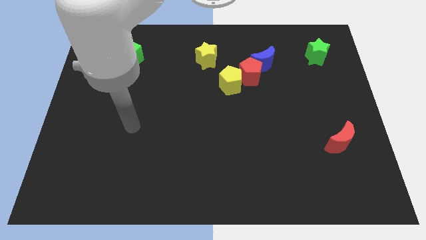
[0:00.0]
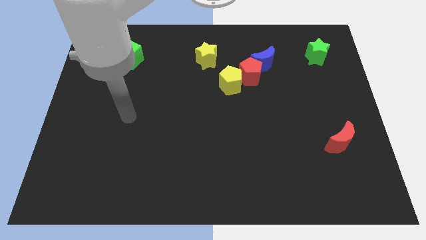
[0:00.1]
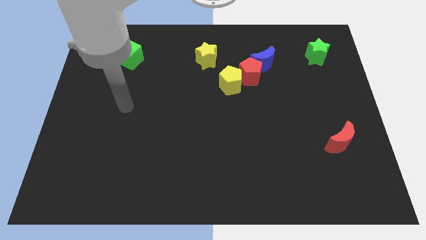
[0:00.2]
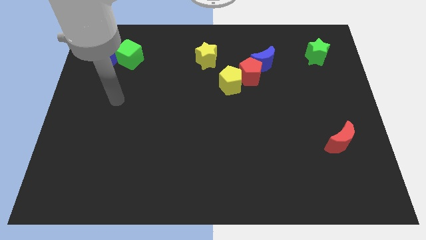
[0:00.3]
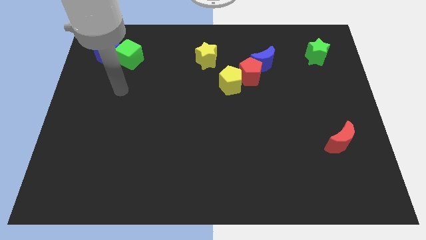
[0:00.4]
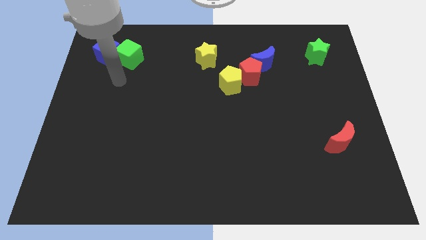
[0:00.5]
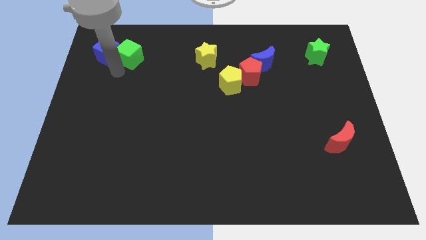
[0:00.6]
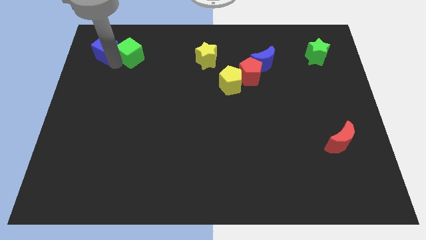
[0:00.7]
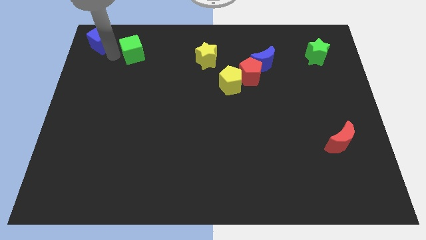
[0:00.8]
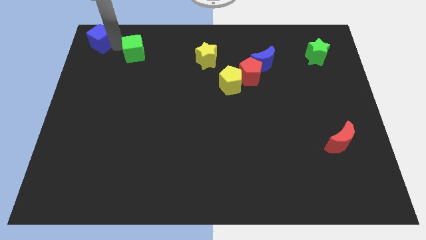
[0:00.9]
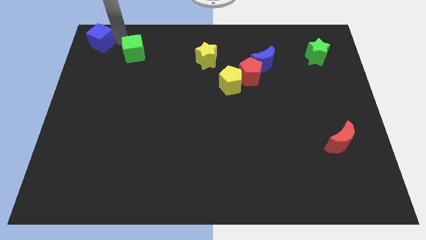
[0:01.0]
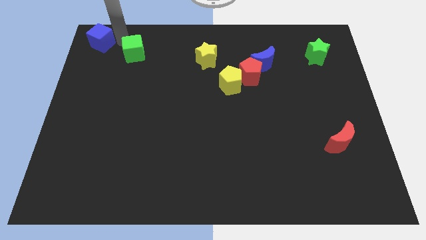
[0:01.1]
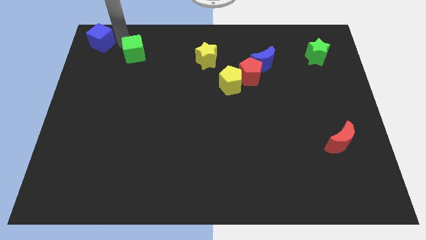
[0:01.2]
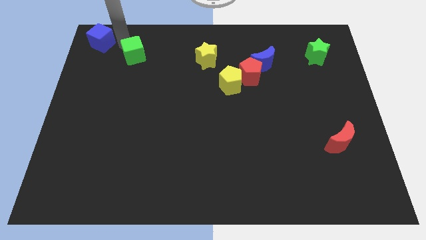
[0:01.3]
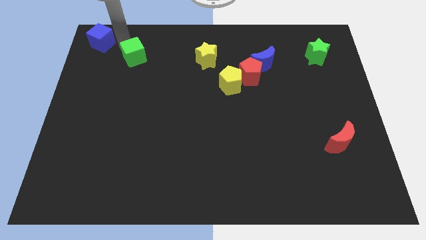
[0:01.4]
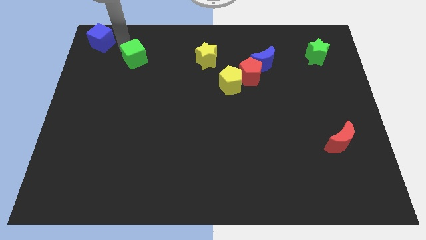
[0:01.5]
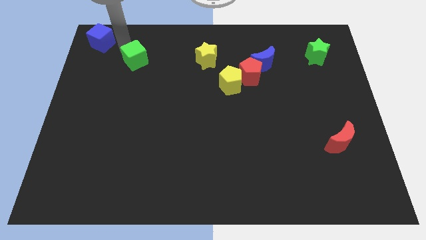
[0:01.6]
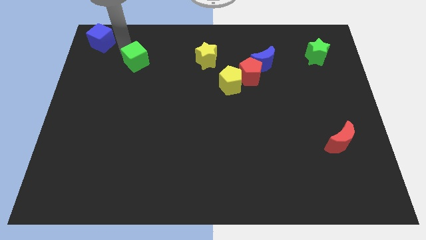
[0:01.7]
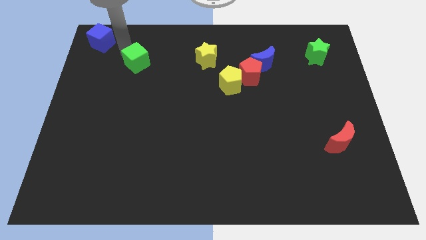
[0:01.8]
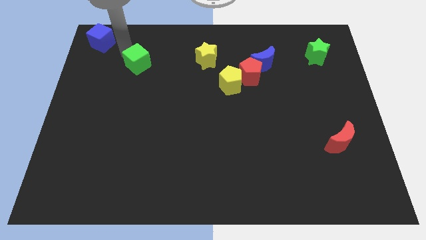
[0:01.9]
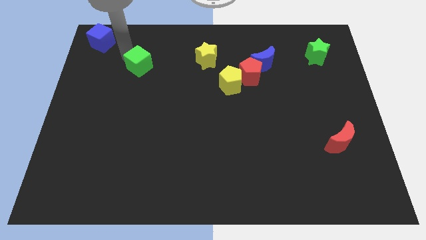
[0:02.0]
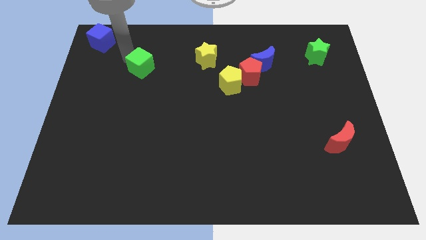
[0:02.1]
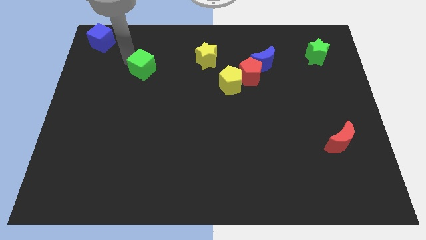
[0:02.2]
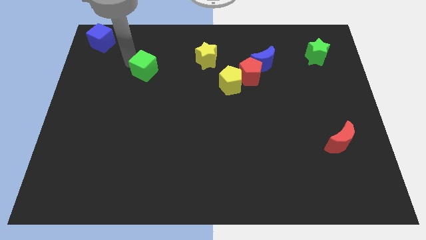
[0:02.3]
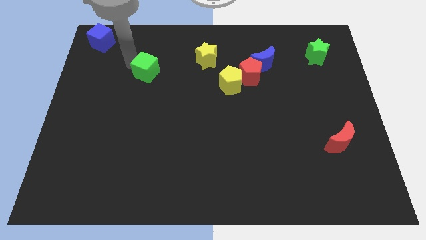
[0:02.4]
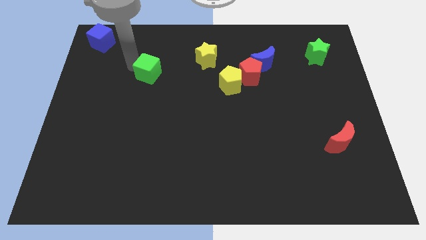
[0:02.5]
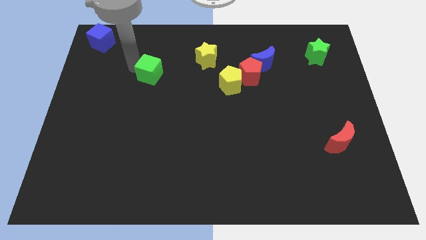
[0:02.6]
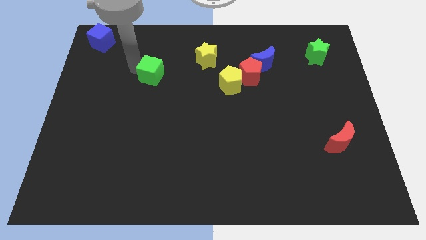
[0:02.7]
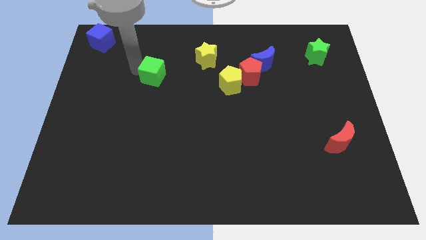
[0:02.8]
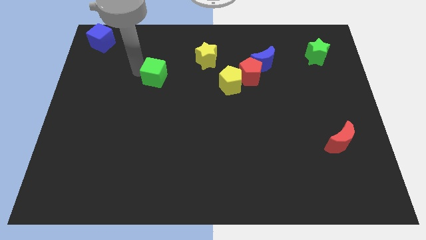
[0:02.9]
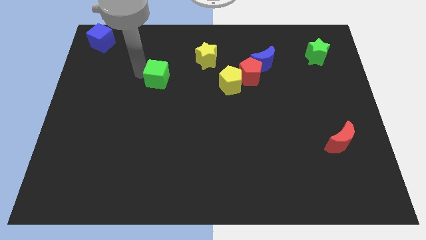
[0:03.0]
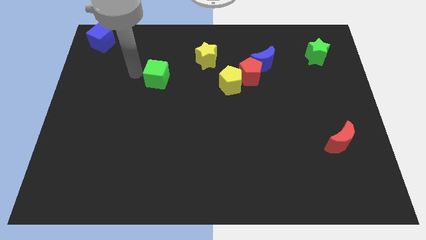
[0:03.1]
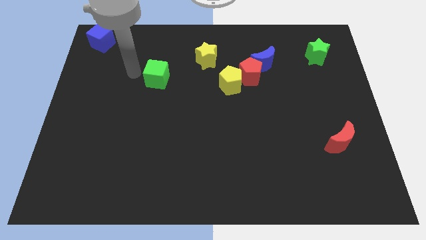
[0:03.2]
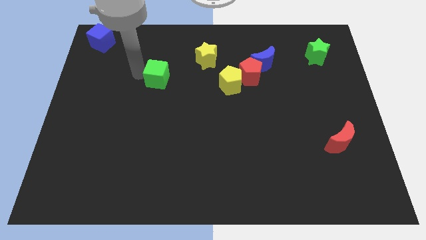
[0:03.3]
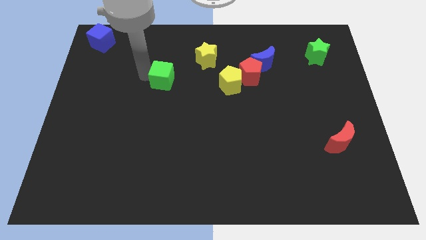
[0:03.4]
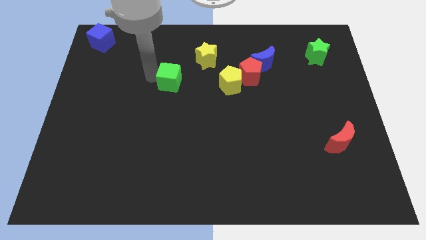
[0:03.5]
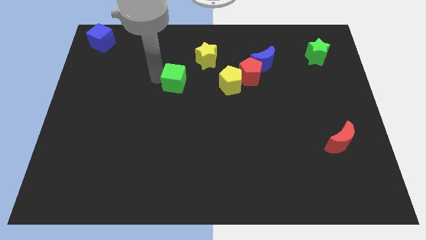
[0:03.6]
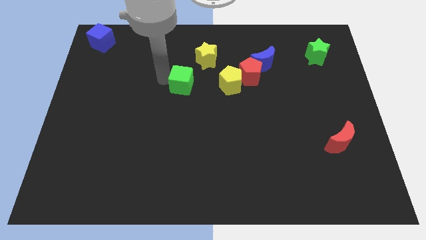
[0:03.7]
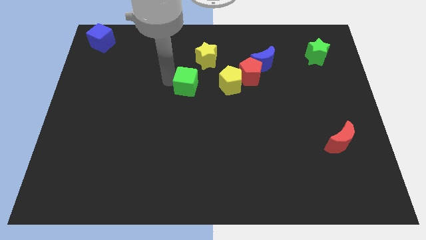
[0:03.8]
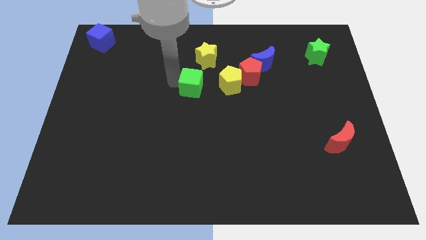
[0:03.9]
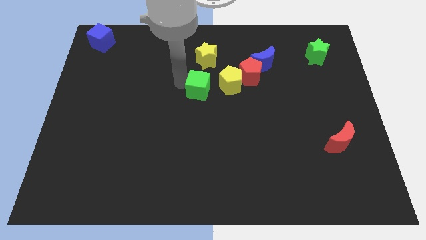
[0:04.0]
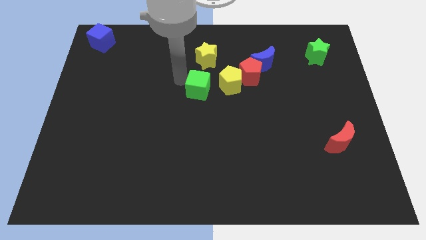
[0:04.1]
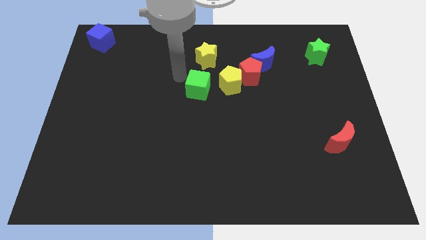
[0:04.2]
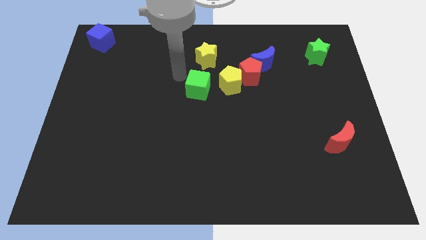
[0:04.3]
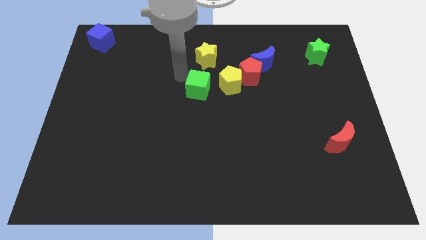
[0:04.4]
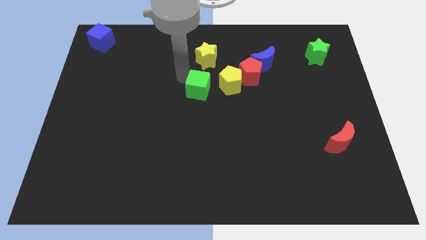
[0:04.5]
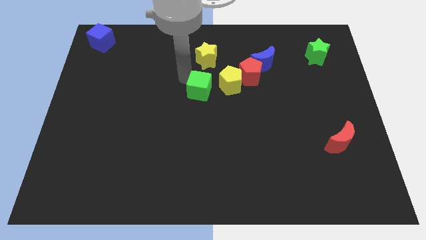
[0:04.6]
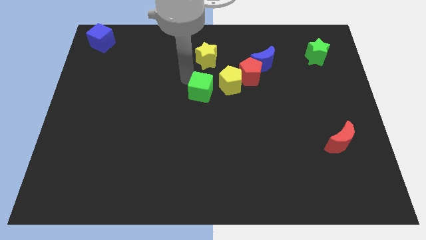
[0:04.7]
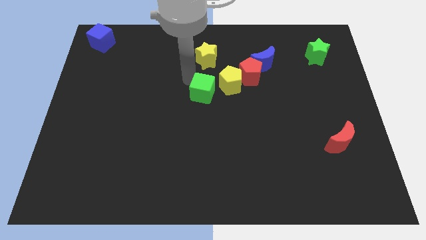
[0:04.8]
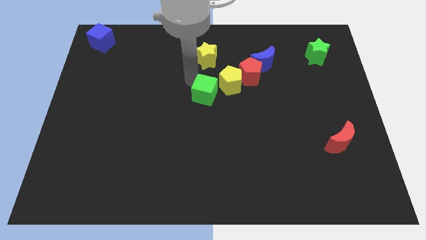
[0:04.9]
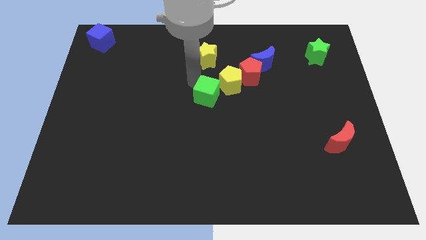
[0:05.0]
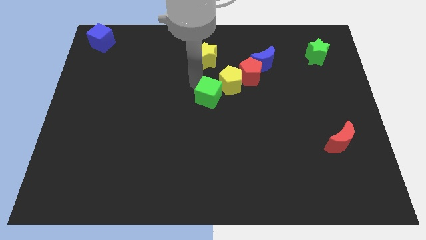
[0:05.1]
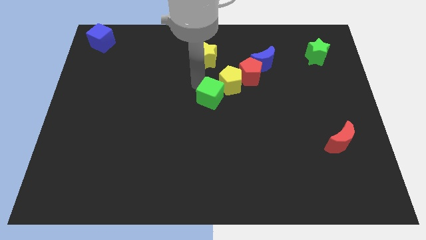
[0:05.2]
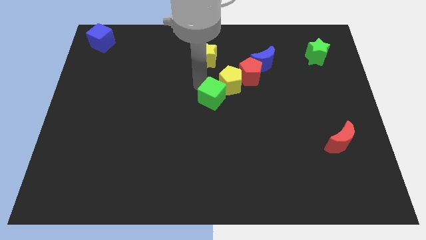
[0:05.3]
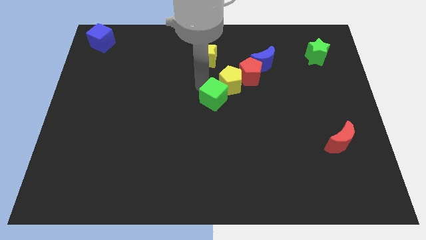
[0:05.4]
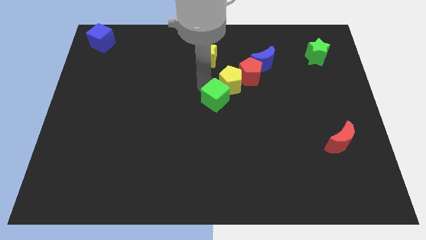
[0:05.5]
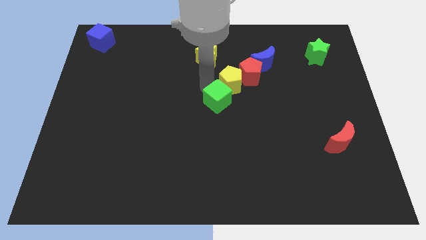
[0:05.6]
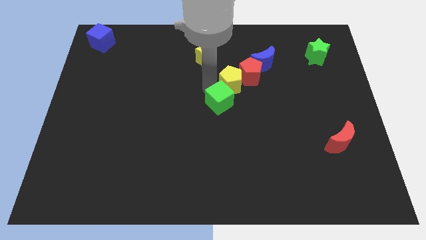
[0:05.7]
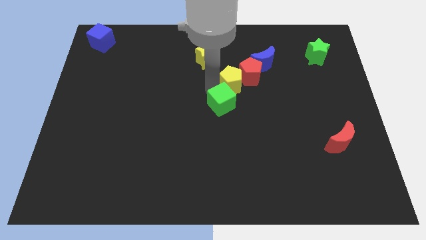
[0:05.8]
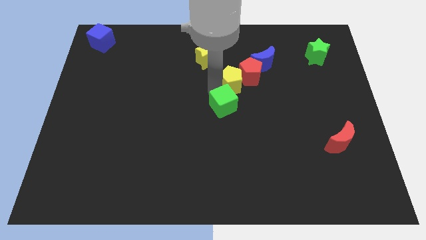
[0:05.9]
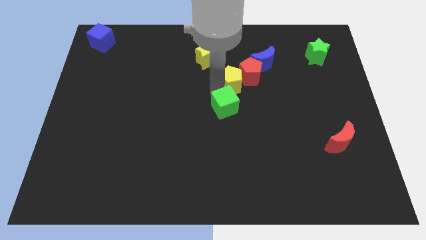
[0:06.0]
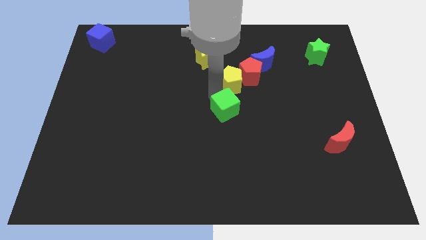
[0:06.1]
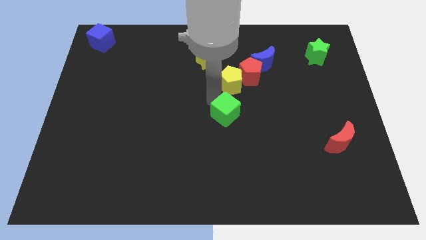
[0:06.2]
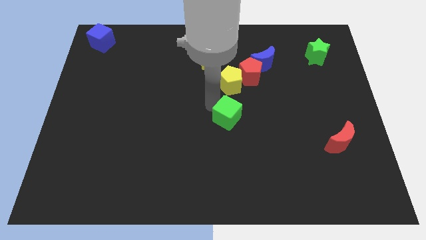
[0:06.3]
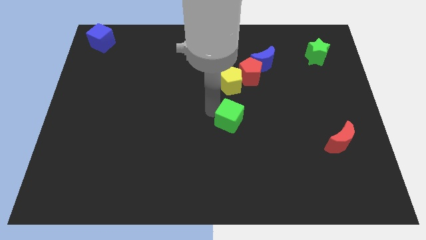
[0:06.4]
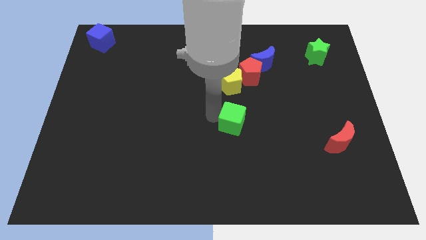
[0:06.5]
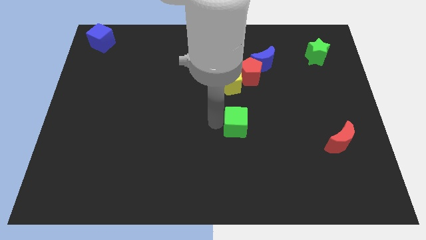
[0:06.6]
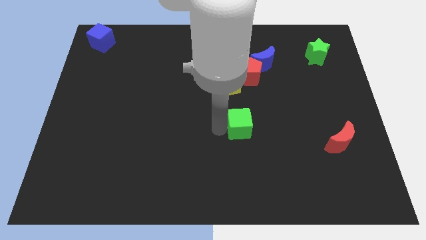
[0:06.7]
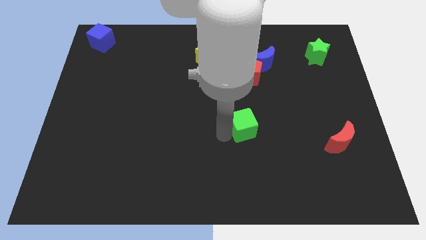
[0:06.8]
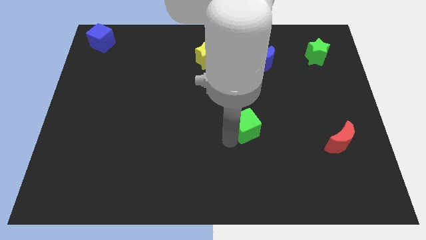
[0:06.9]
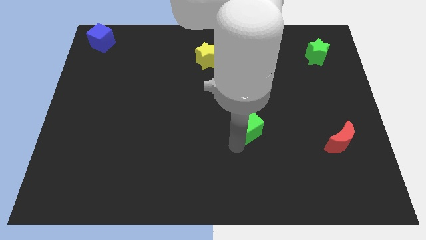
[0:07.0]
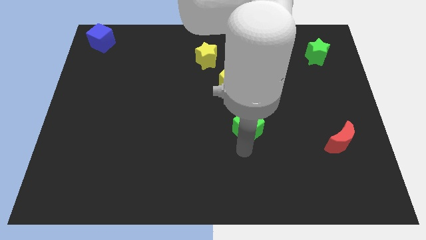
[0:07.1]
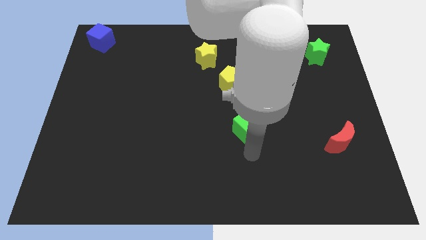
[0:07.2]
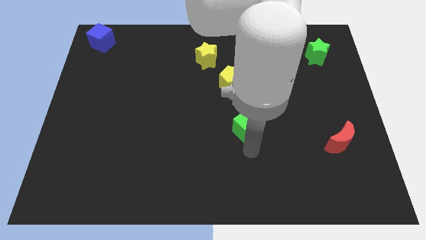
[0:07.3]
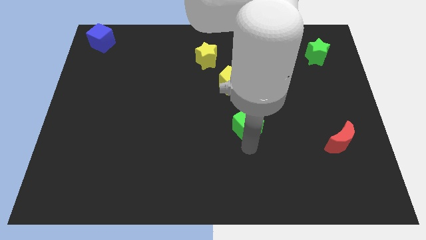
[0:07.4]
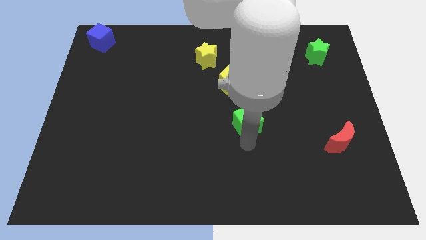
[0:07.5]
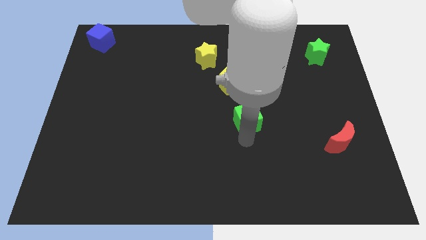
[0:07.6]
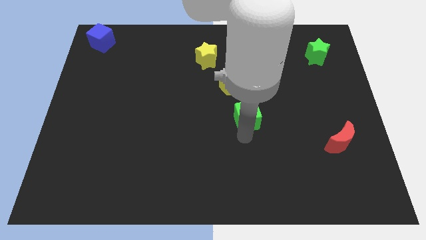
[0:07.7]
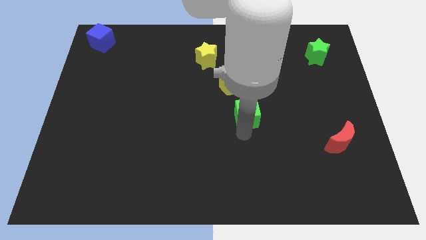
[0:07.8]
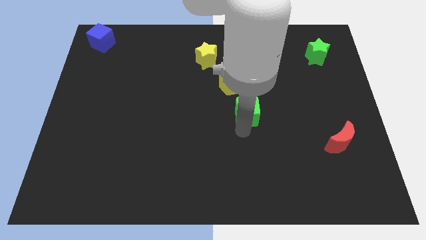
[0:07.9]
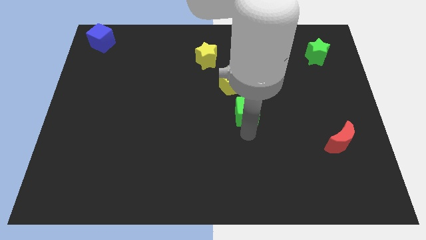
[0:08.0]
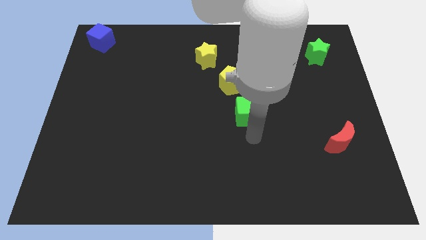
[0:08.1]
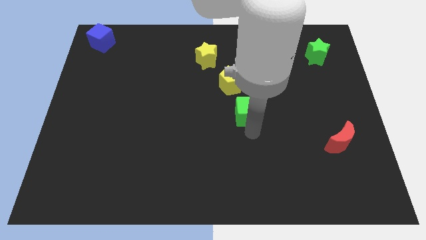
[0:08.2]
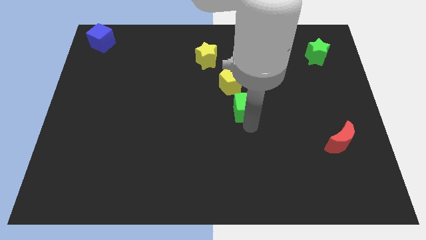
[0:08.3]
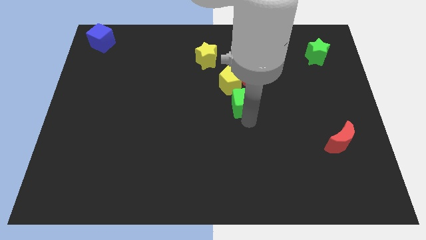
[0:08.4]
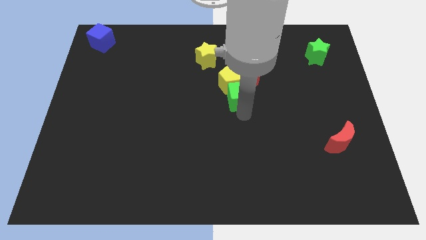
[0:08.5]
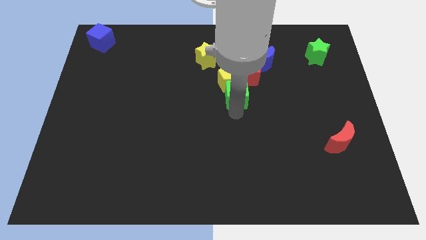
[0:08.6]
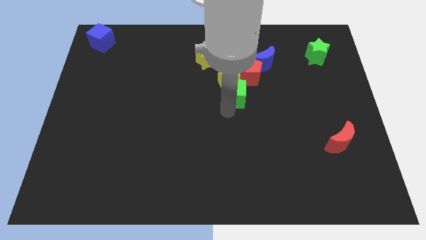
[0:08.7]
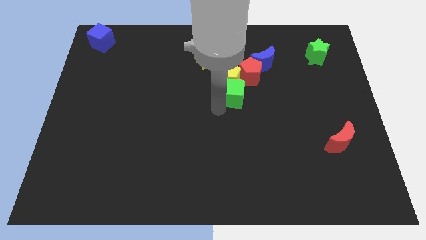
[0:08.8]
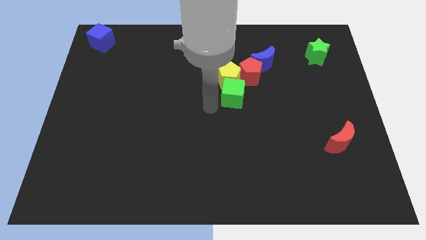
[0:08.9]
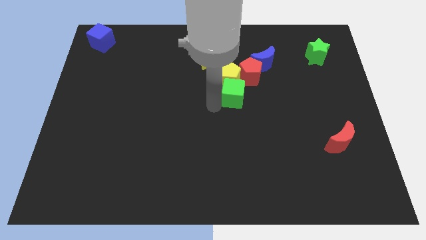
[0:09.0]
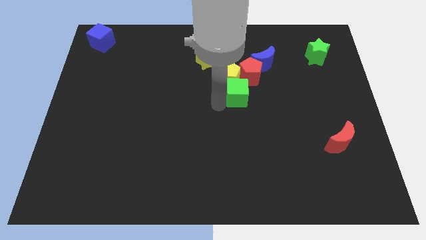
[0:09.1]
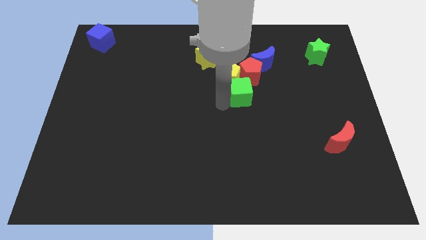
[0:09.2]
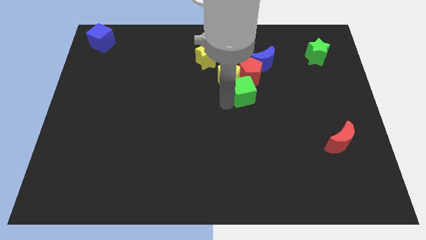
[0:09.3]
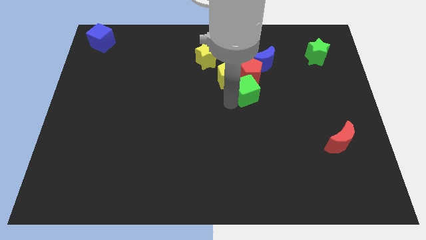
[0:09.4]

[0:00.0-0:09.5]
push the green cube to the right side of the yellow pentagon
